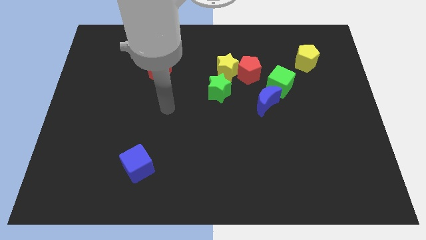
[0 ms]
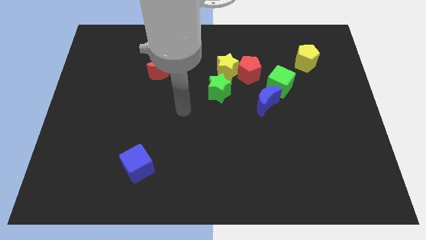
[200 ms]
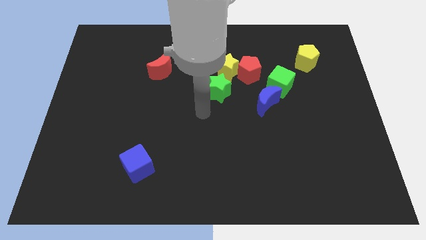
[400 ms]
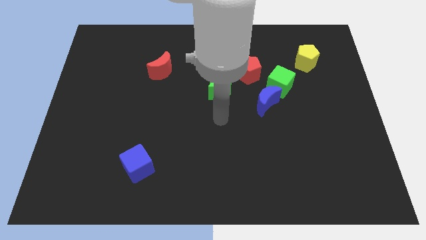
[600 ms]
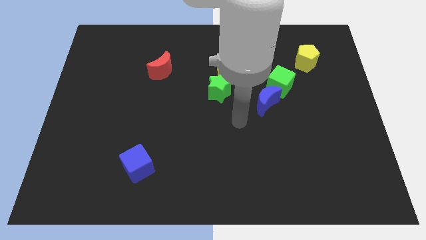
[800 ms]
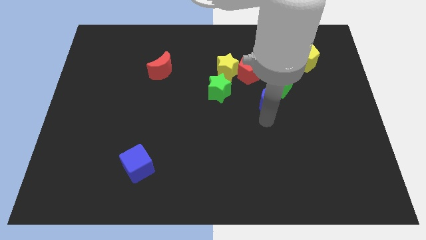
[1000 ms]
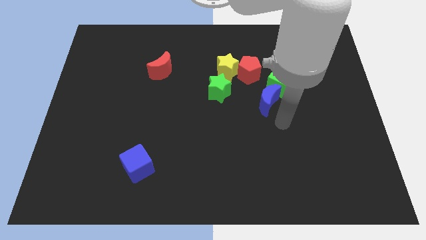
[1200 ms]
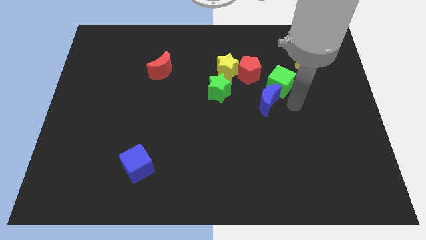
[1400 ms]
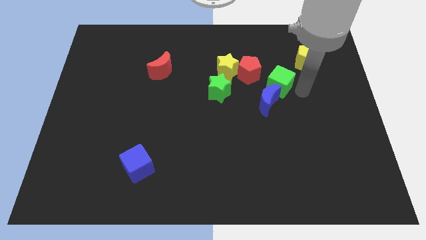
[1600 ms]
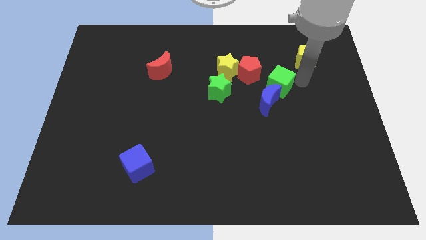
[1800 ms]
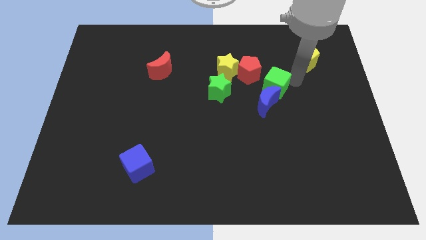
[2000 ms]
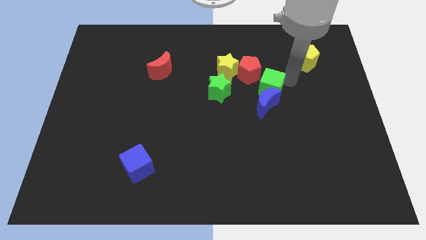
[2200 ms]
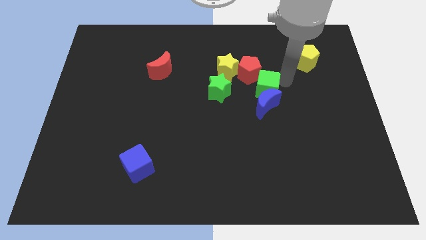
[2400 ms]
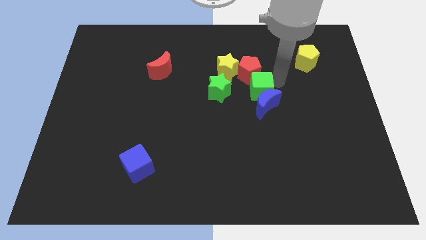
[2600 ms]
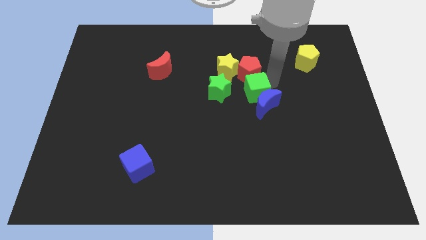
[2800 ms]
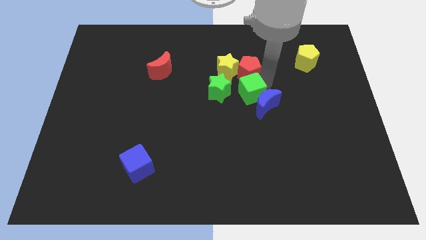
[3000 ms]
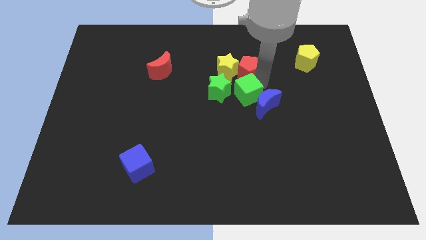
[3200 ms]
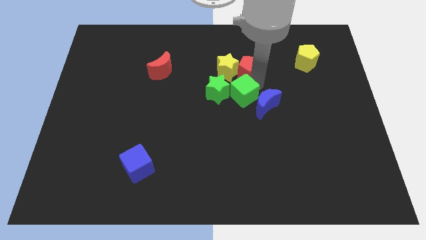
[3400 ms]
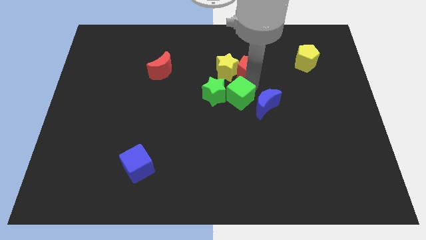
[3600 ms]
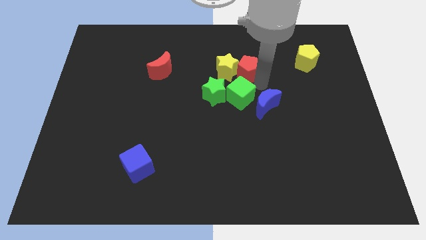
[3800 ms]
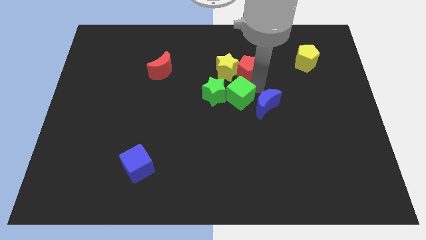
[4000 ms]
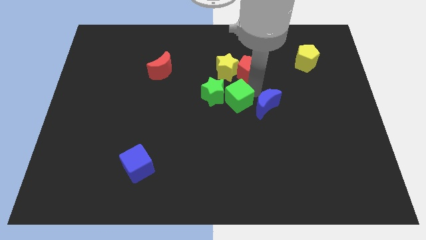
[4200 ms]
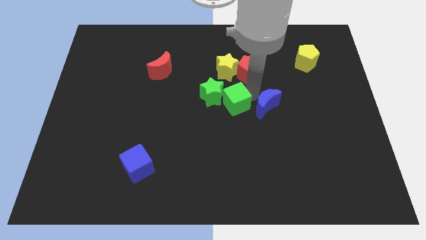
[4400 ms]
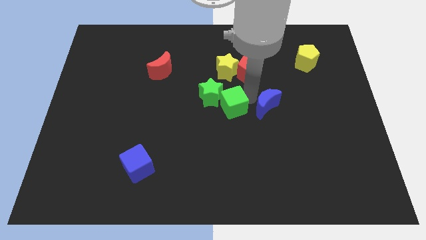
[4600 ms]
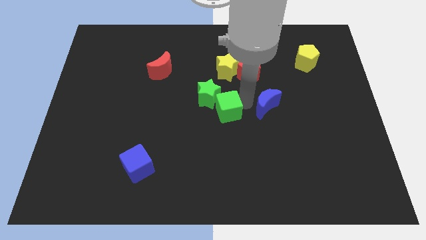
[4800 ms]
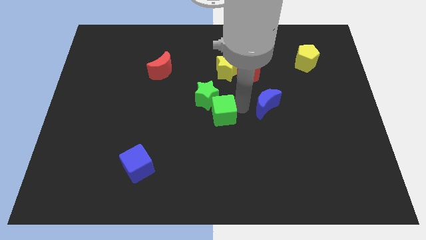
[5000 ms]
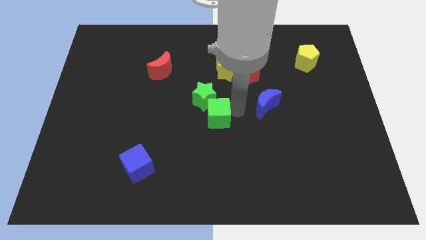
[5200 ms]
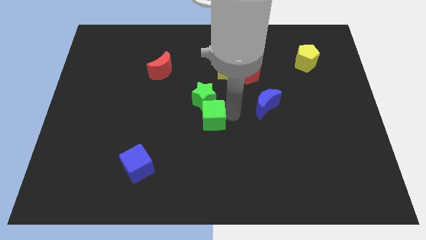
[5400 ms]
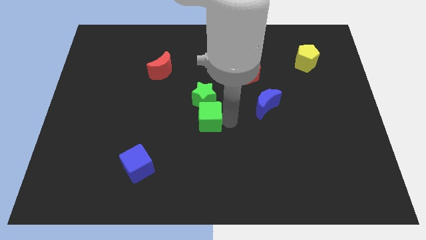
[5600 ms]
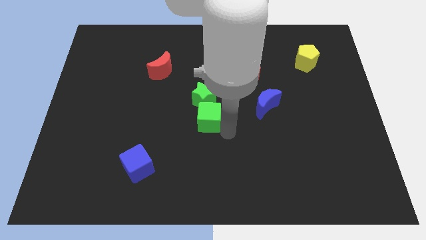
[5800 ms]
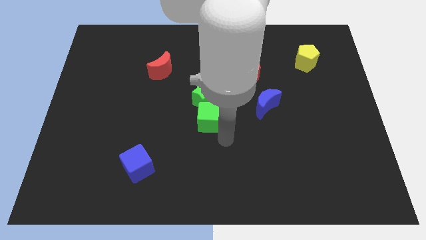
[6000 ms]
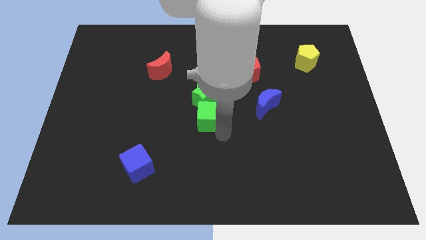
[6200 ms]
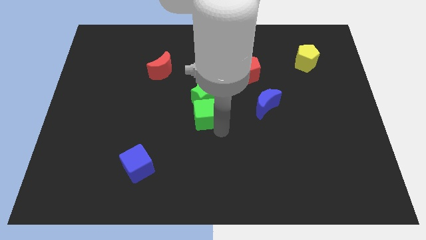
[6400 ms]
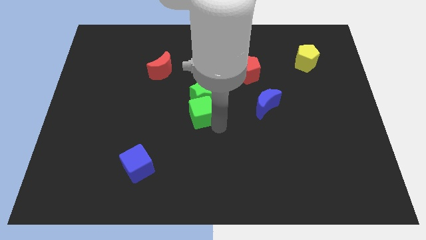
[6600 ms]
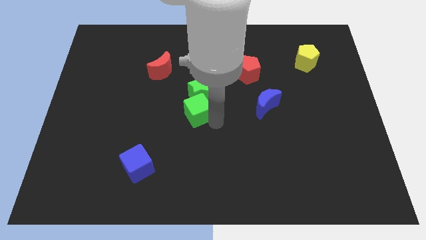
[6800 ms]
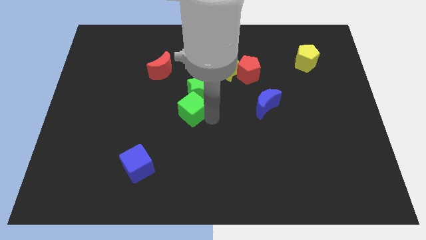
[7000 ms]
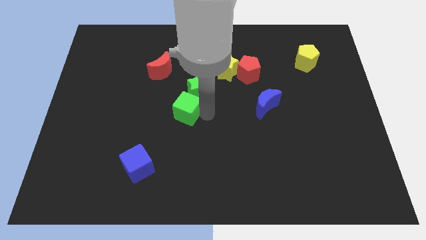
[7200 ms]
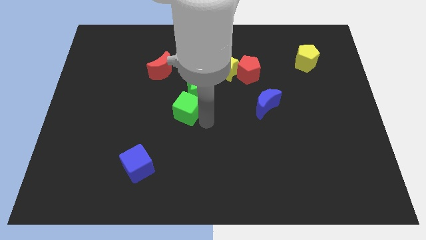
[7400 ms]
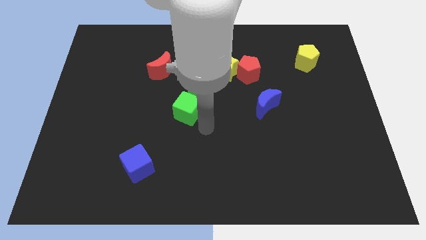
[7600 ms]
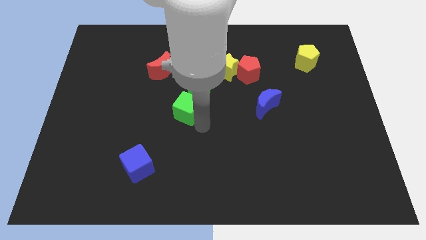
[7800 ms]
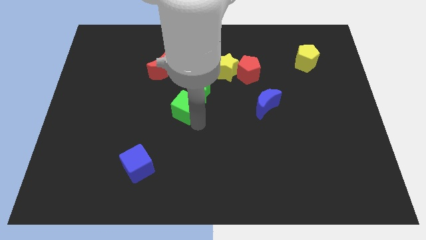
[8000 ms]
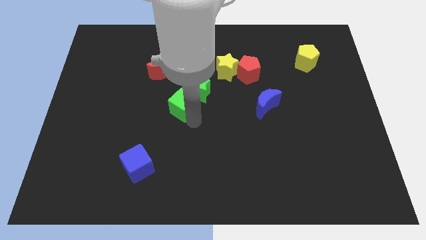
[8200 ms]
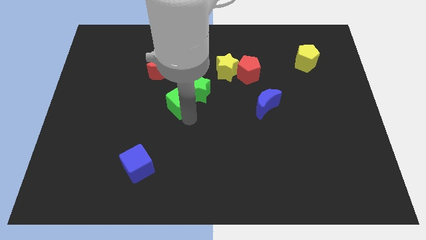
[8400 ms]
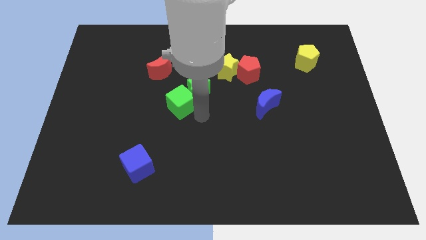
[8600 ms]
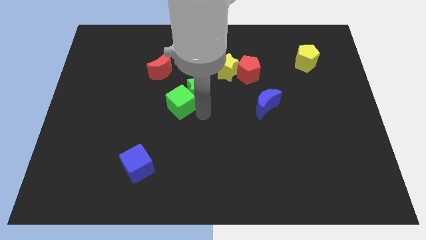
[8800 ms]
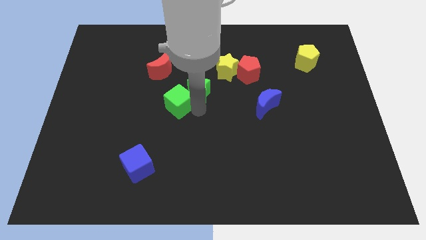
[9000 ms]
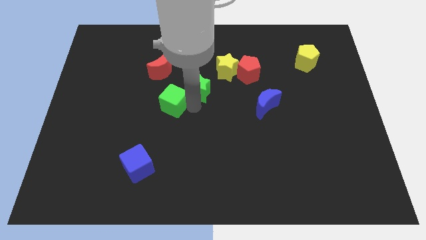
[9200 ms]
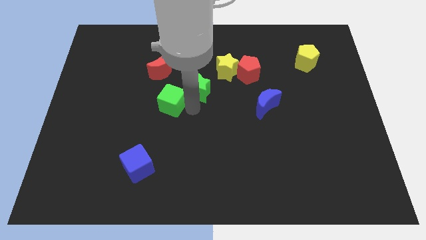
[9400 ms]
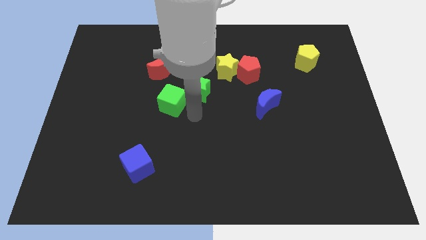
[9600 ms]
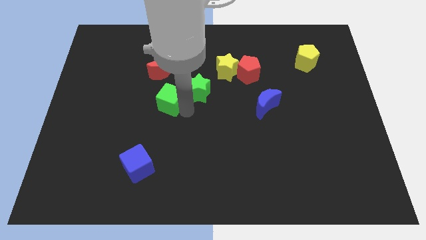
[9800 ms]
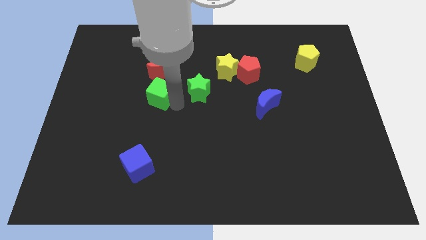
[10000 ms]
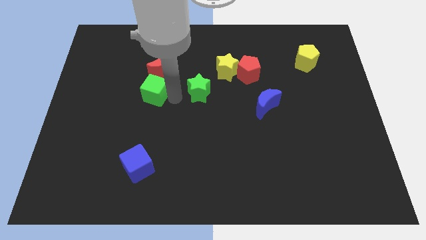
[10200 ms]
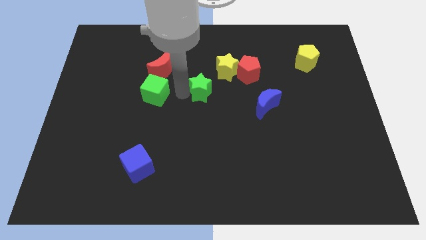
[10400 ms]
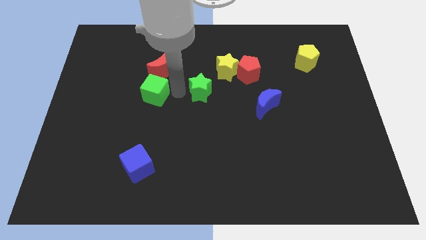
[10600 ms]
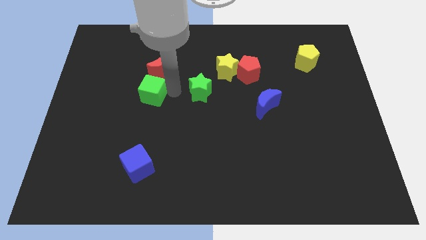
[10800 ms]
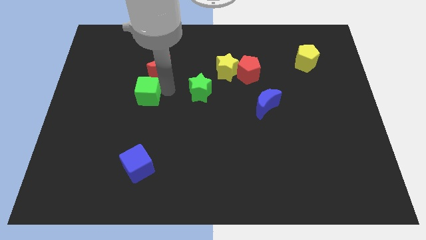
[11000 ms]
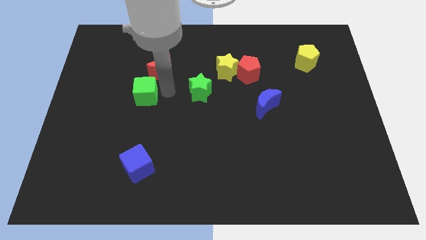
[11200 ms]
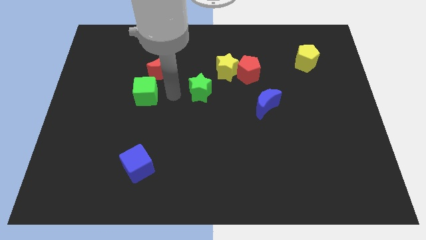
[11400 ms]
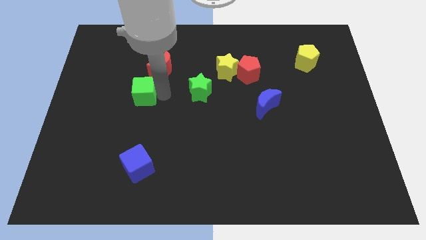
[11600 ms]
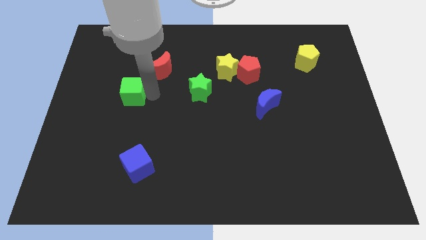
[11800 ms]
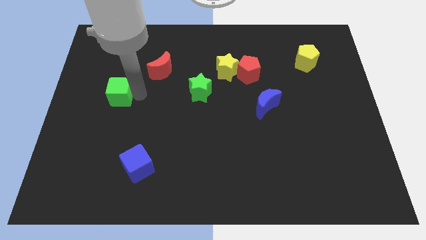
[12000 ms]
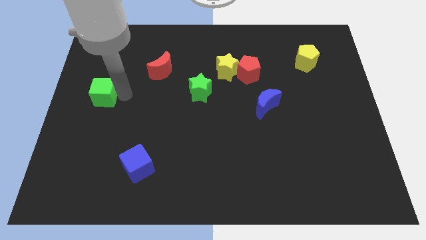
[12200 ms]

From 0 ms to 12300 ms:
push the green cube to the left side of the board
